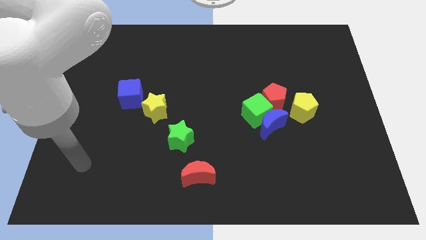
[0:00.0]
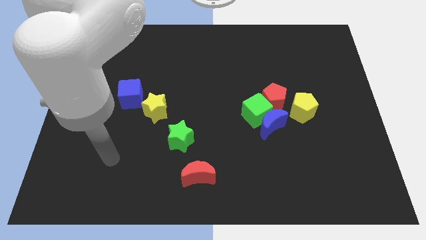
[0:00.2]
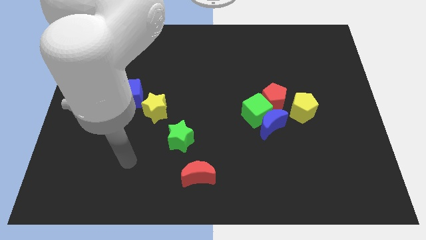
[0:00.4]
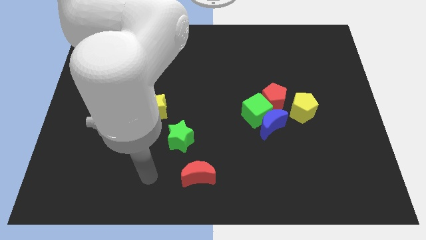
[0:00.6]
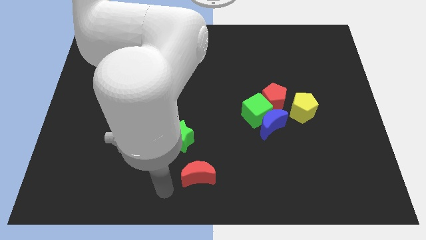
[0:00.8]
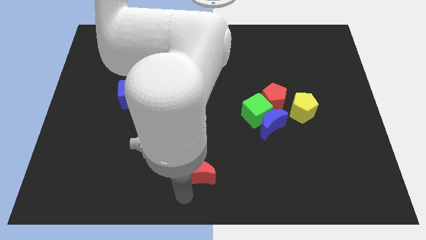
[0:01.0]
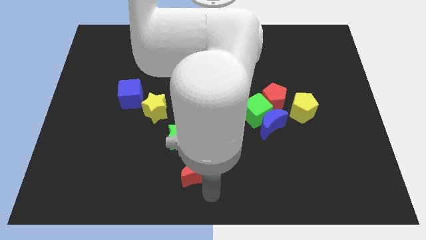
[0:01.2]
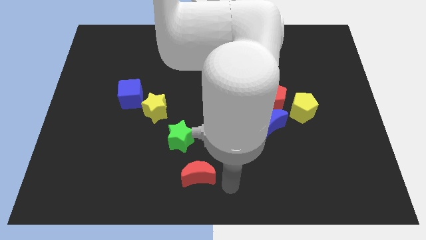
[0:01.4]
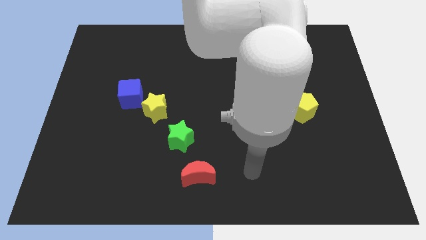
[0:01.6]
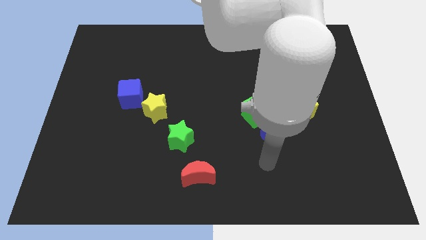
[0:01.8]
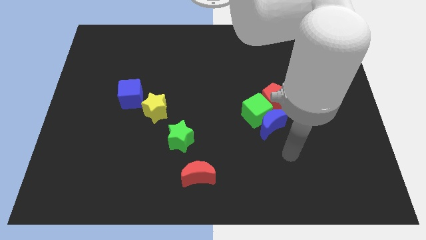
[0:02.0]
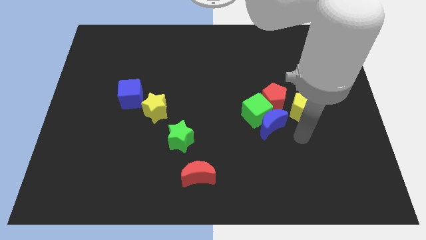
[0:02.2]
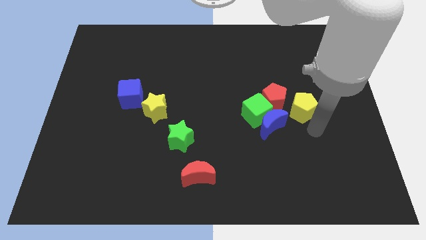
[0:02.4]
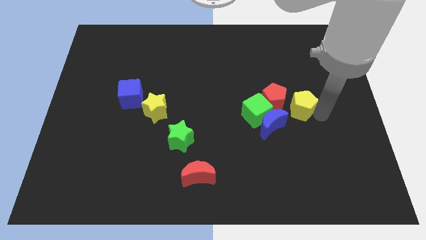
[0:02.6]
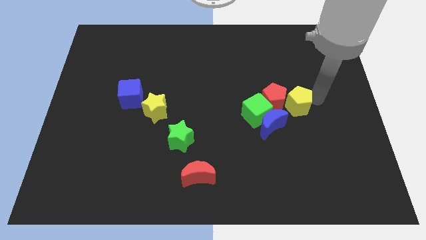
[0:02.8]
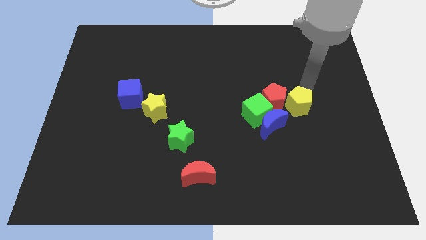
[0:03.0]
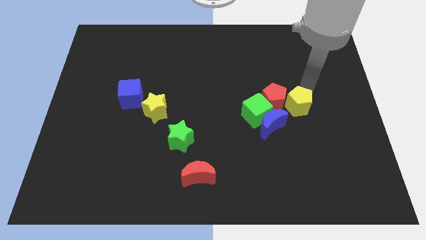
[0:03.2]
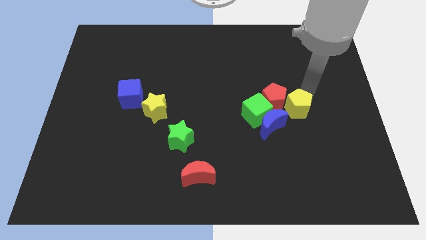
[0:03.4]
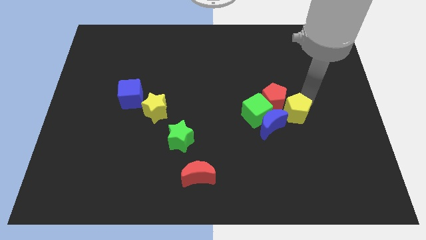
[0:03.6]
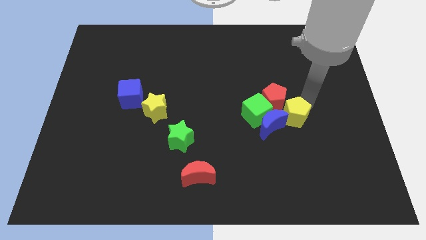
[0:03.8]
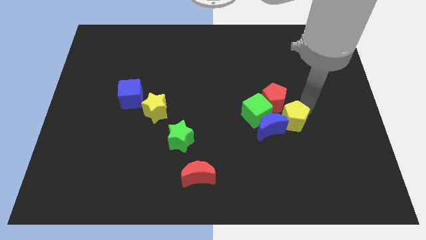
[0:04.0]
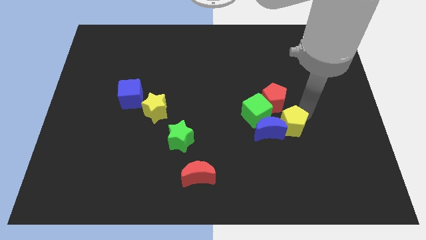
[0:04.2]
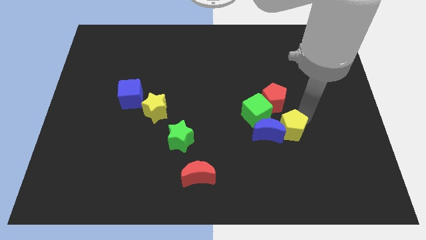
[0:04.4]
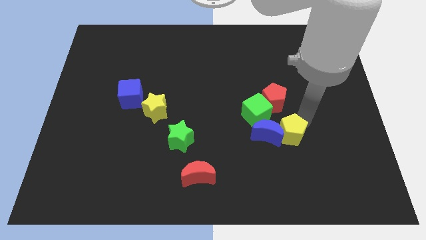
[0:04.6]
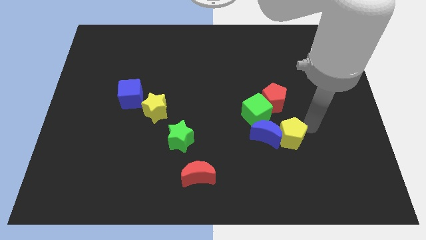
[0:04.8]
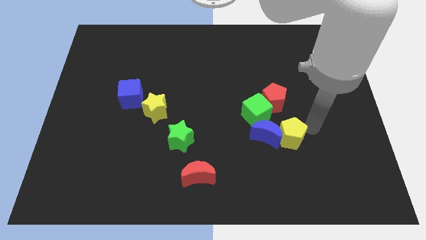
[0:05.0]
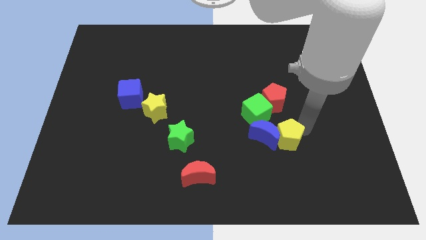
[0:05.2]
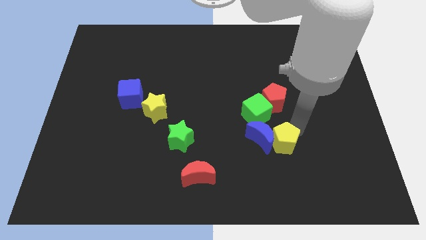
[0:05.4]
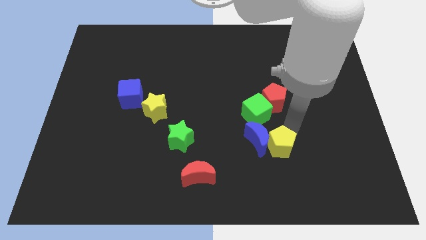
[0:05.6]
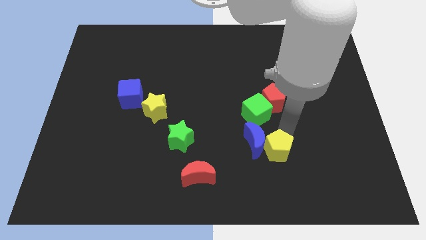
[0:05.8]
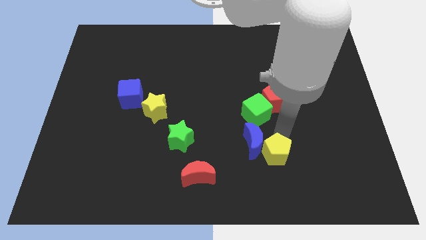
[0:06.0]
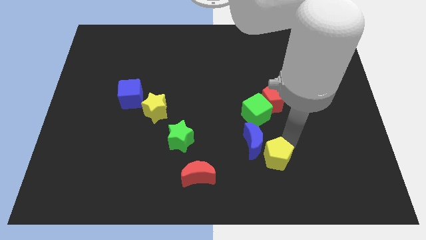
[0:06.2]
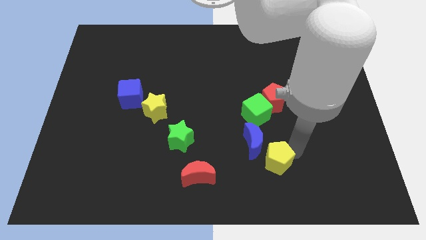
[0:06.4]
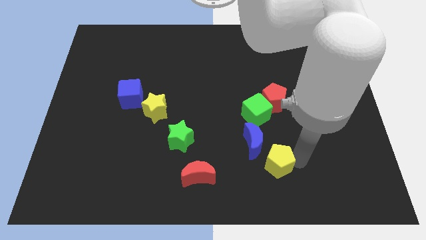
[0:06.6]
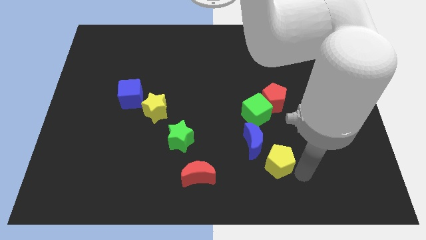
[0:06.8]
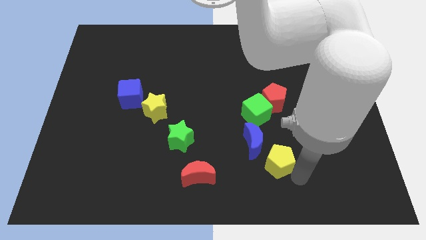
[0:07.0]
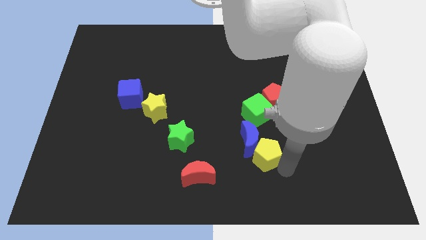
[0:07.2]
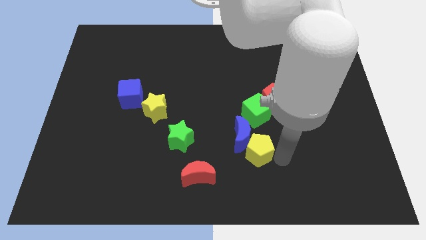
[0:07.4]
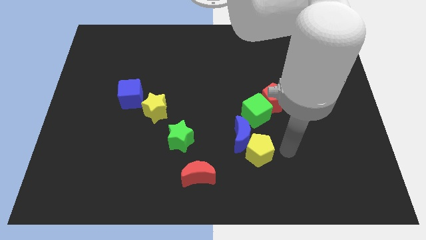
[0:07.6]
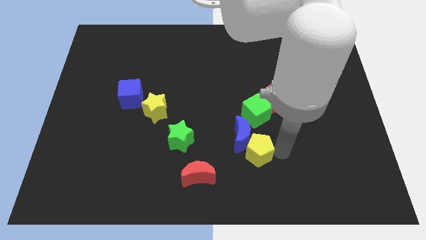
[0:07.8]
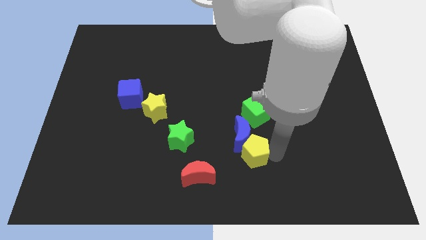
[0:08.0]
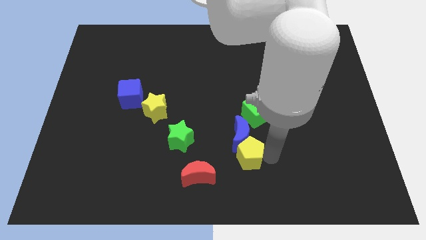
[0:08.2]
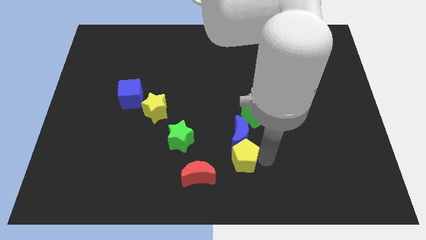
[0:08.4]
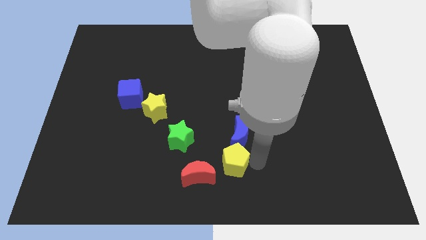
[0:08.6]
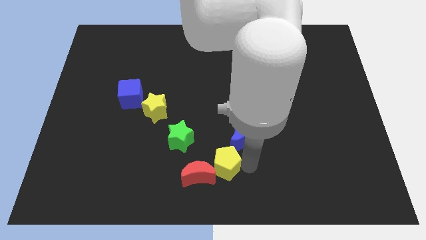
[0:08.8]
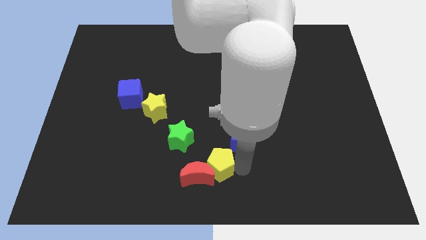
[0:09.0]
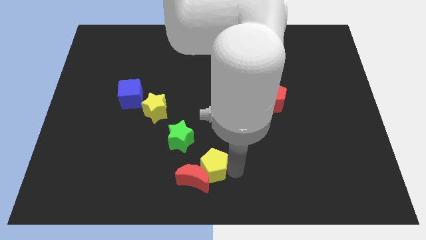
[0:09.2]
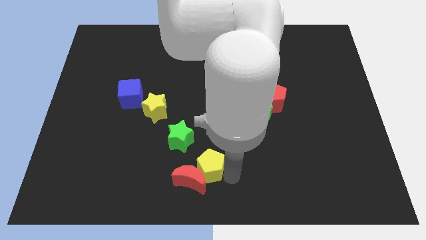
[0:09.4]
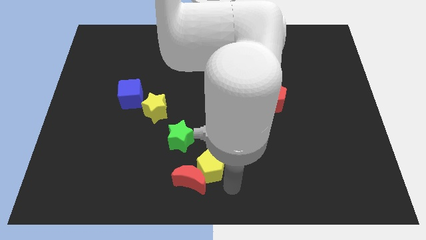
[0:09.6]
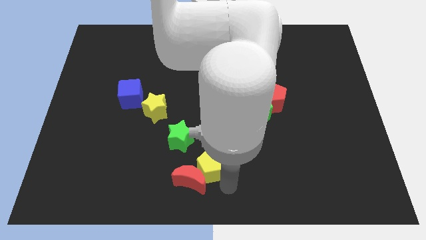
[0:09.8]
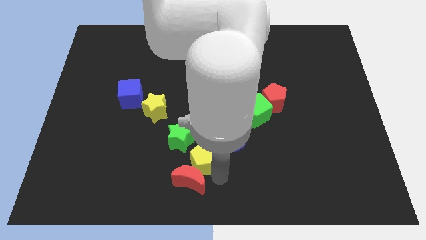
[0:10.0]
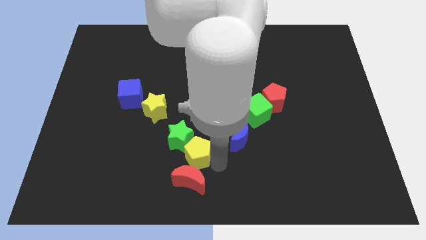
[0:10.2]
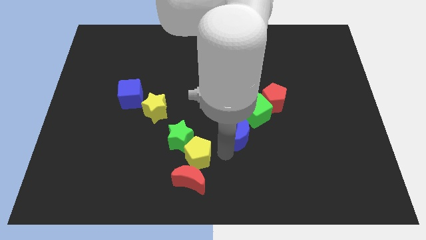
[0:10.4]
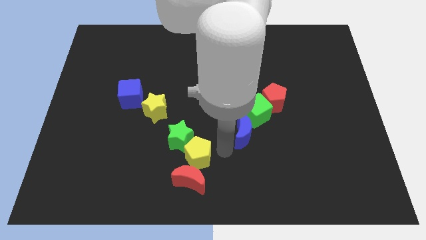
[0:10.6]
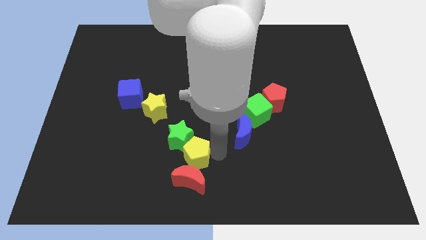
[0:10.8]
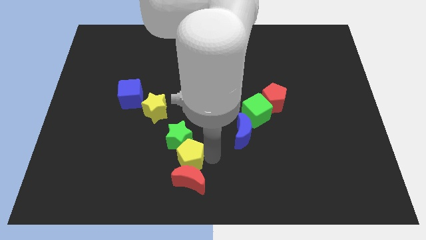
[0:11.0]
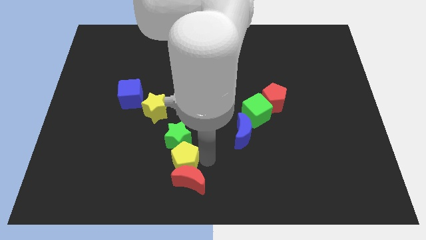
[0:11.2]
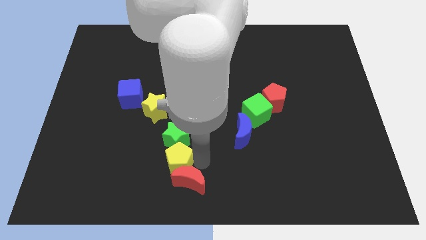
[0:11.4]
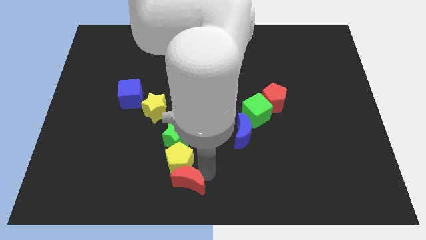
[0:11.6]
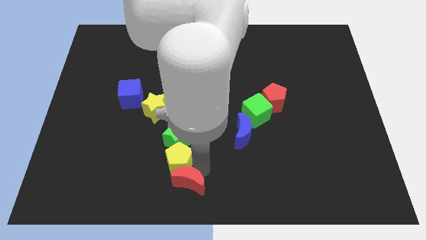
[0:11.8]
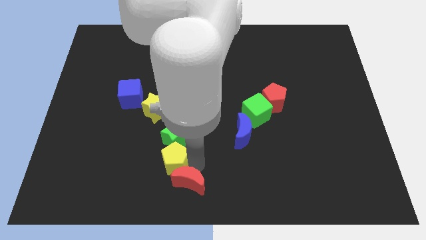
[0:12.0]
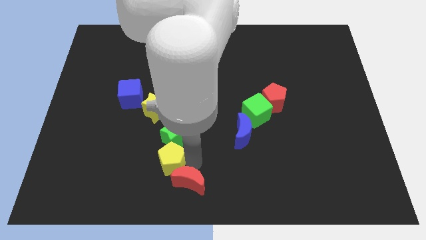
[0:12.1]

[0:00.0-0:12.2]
move the yellow pentagon below the yellow star

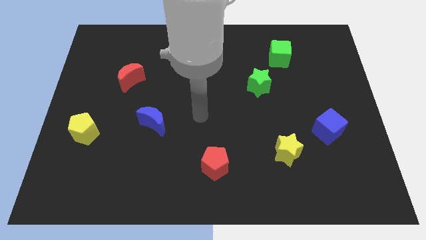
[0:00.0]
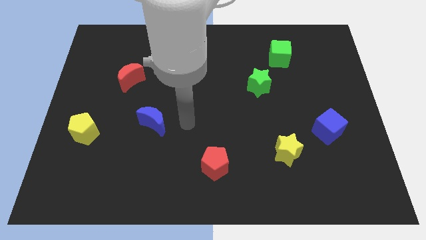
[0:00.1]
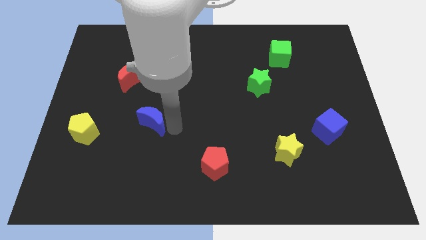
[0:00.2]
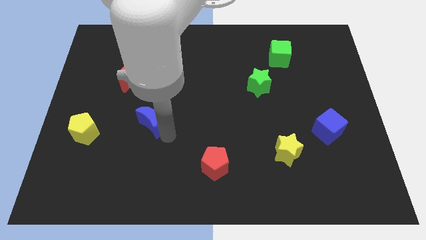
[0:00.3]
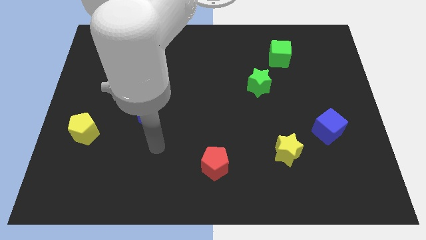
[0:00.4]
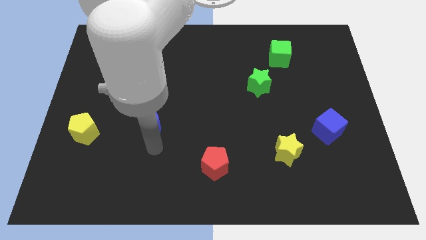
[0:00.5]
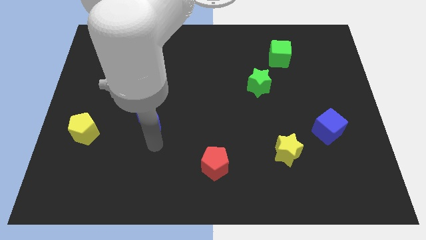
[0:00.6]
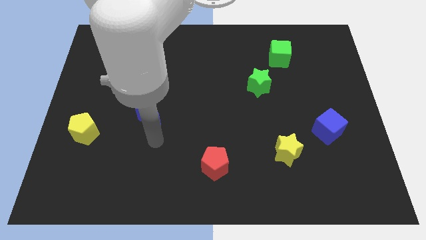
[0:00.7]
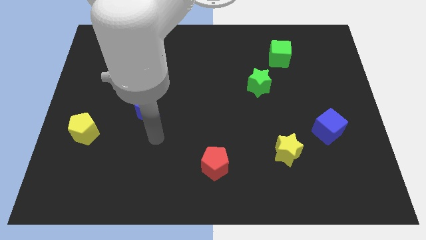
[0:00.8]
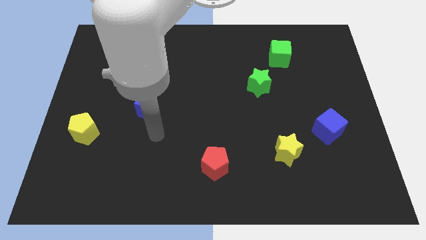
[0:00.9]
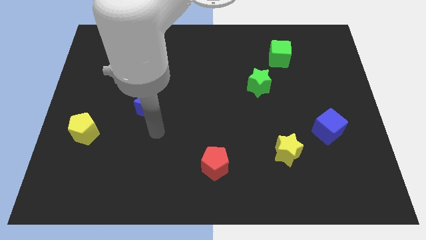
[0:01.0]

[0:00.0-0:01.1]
move the blue moon diagonally down and to the right of the red moon
